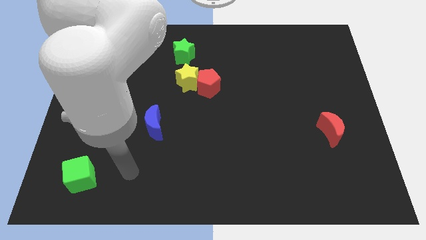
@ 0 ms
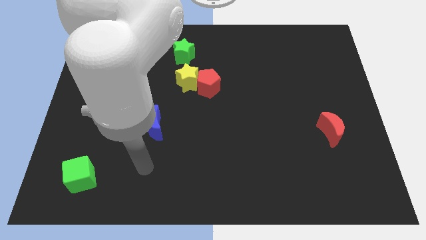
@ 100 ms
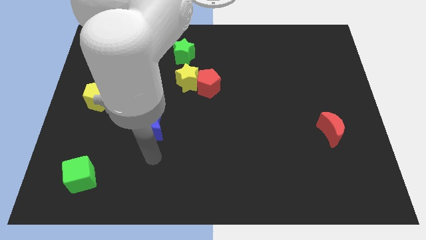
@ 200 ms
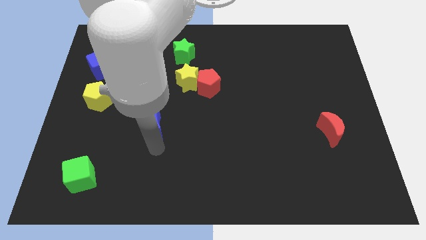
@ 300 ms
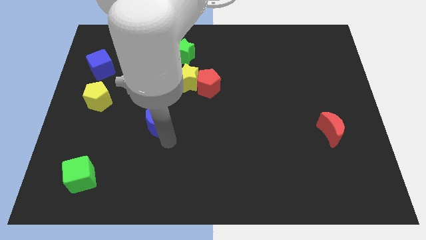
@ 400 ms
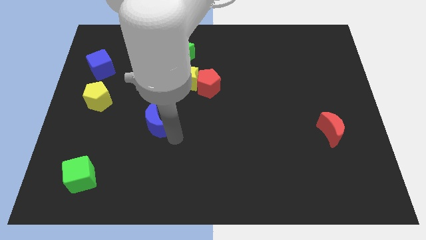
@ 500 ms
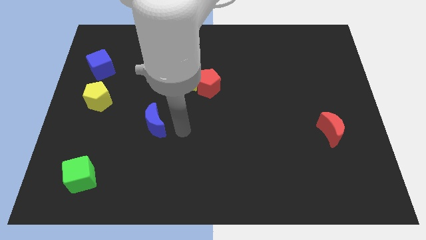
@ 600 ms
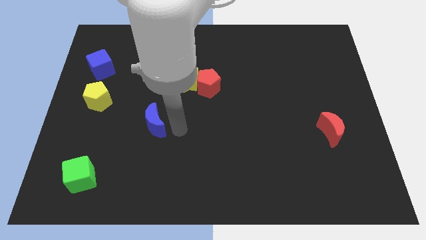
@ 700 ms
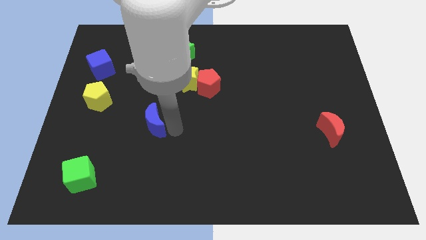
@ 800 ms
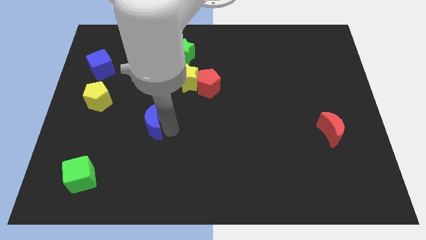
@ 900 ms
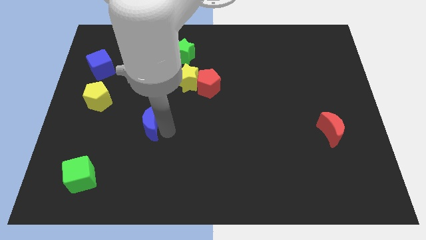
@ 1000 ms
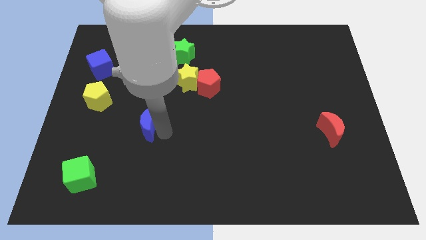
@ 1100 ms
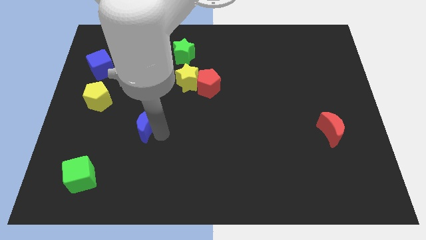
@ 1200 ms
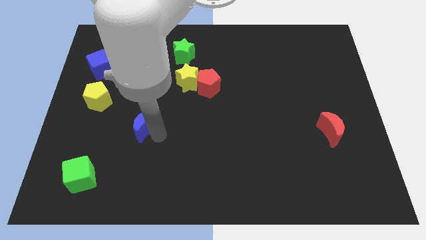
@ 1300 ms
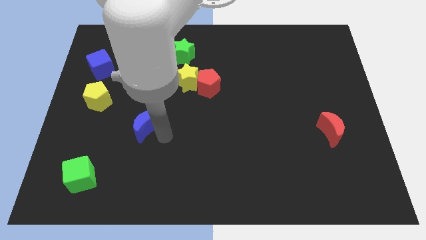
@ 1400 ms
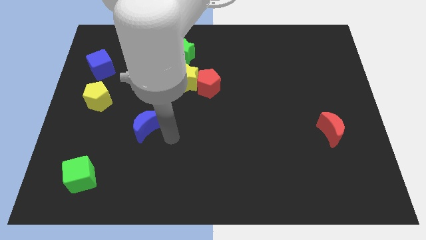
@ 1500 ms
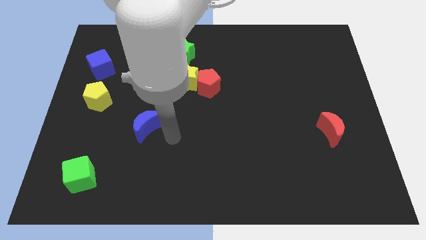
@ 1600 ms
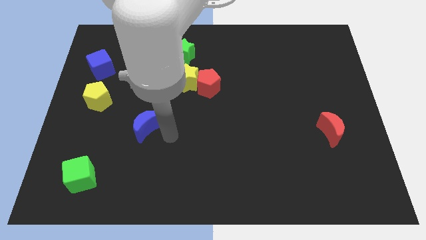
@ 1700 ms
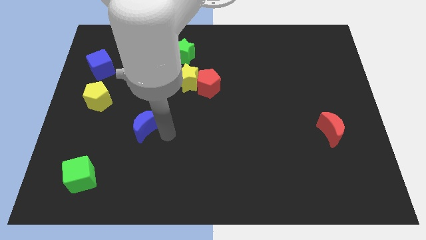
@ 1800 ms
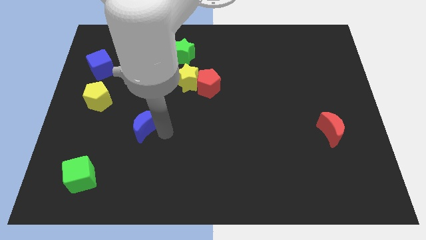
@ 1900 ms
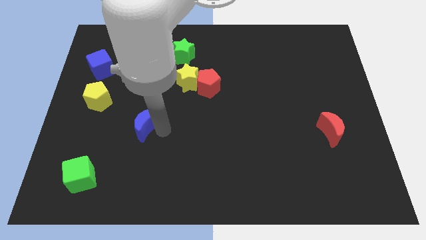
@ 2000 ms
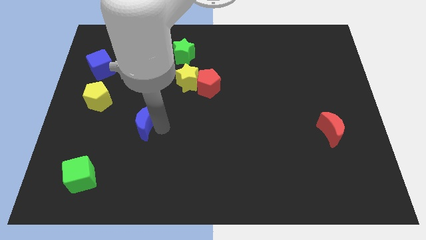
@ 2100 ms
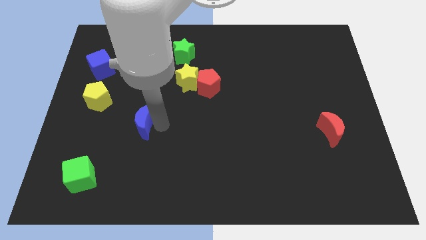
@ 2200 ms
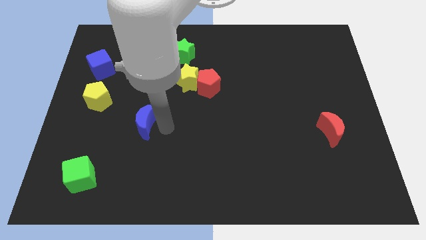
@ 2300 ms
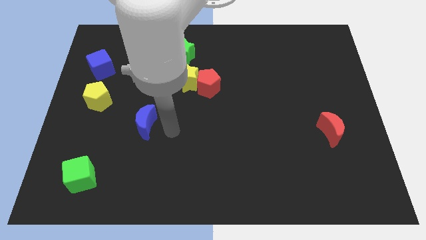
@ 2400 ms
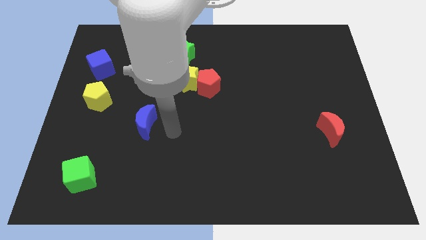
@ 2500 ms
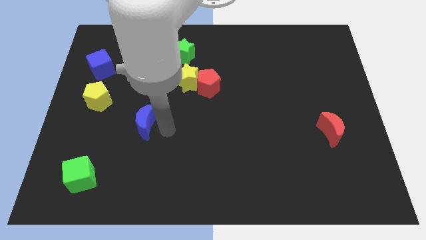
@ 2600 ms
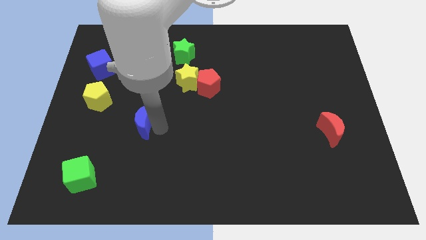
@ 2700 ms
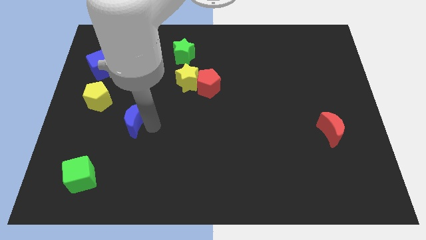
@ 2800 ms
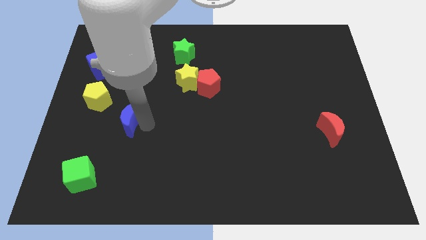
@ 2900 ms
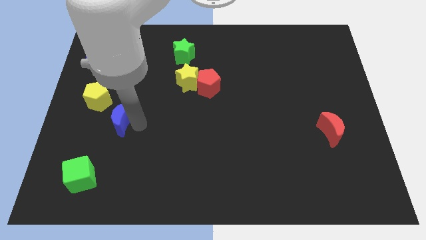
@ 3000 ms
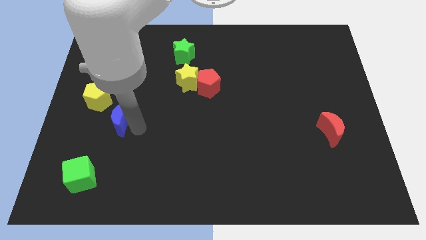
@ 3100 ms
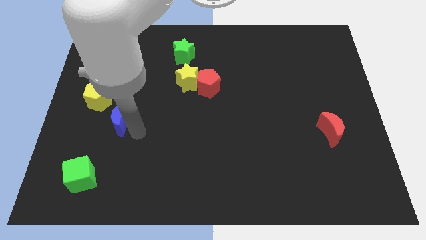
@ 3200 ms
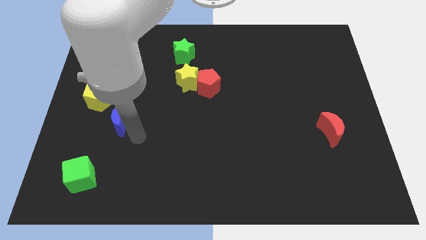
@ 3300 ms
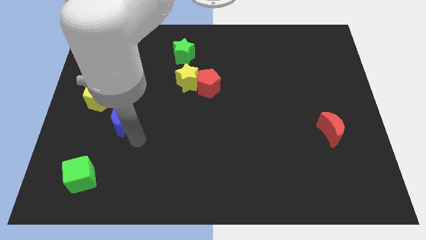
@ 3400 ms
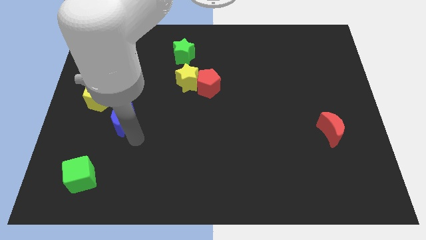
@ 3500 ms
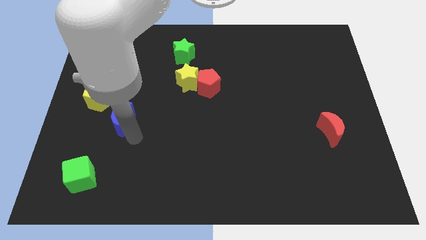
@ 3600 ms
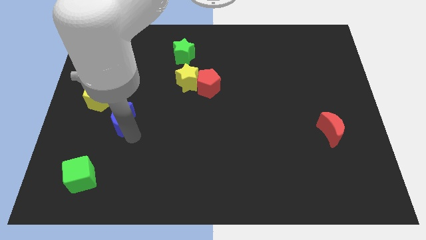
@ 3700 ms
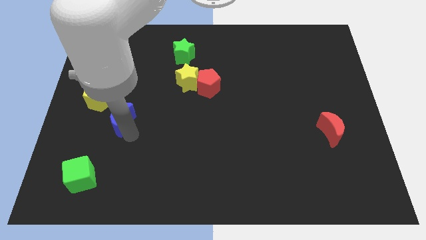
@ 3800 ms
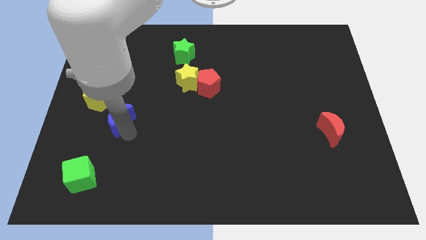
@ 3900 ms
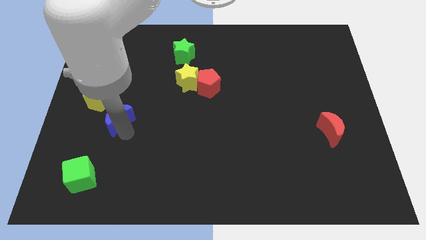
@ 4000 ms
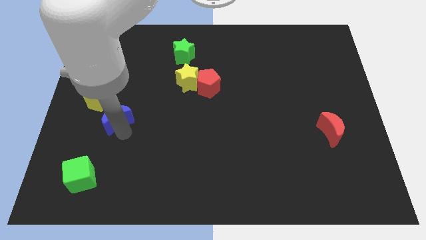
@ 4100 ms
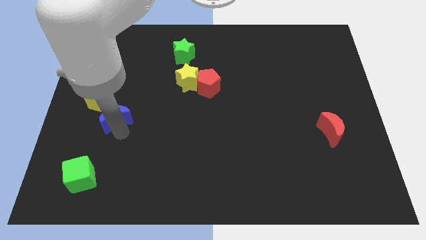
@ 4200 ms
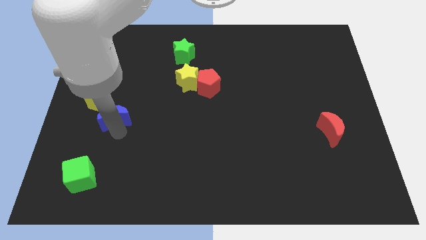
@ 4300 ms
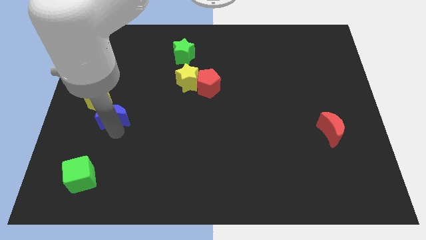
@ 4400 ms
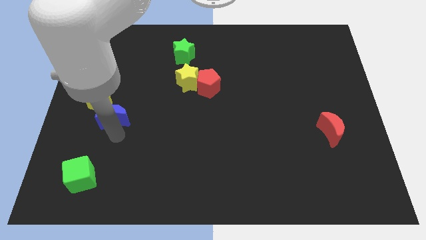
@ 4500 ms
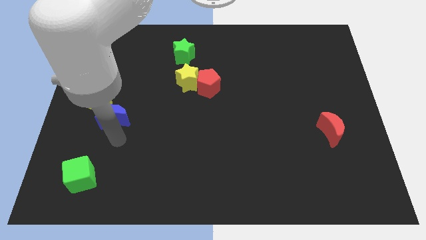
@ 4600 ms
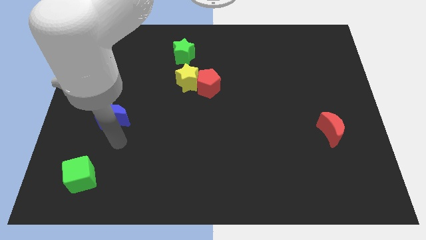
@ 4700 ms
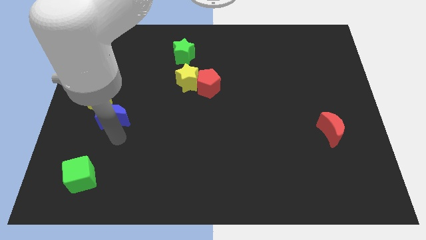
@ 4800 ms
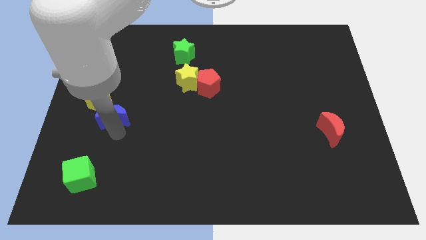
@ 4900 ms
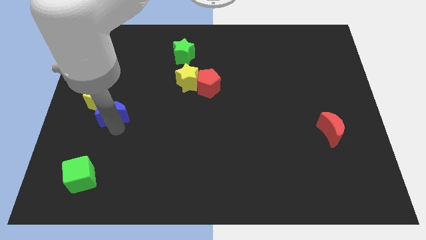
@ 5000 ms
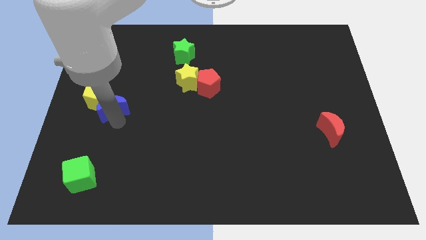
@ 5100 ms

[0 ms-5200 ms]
push the blue moon close to the yellow pentagon

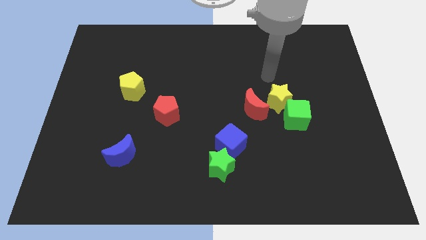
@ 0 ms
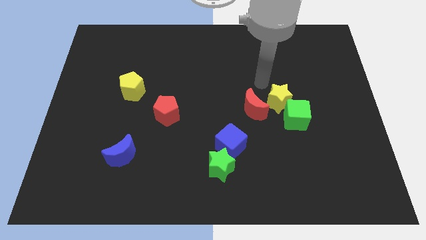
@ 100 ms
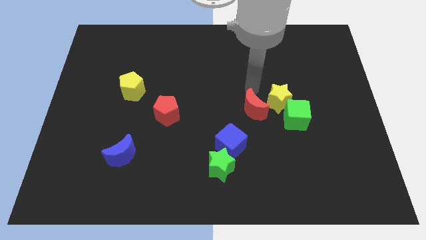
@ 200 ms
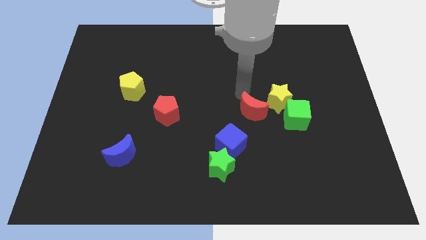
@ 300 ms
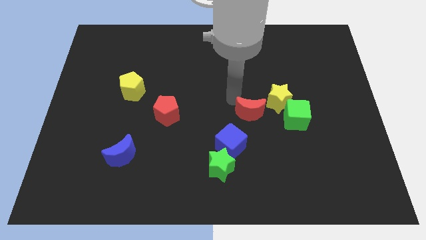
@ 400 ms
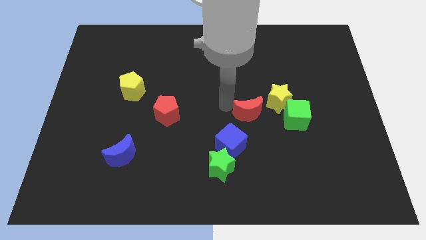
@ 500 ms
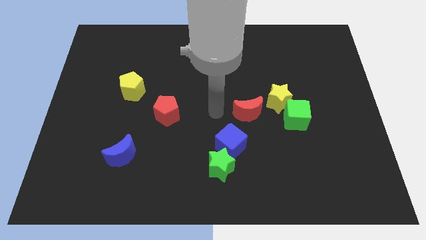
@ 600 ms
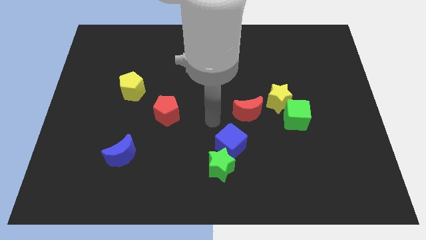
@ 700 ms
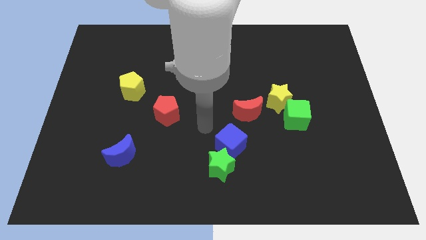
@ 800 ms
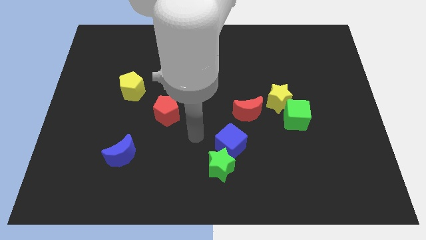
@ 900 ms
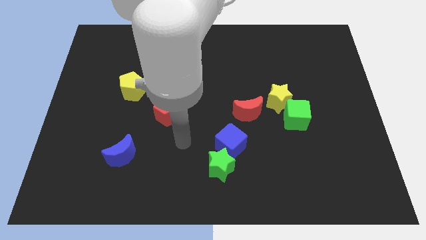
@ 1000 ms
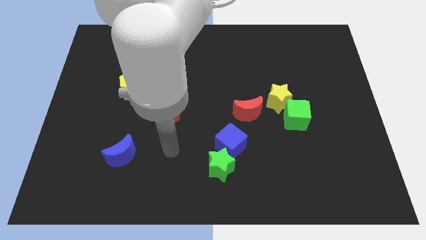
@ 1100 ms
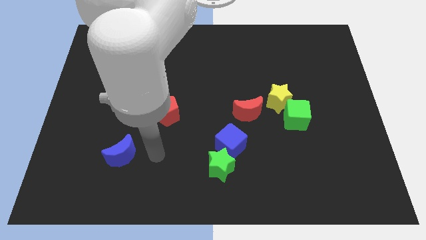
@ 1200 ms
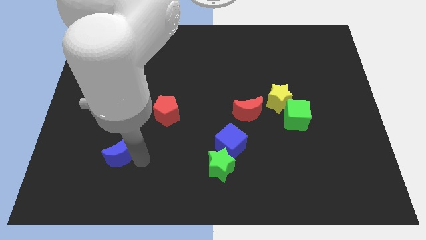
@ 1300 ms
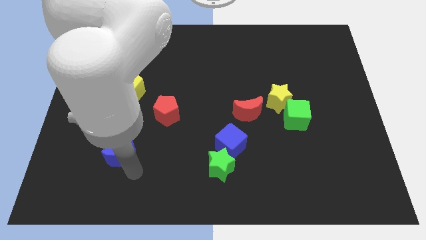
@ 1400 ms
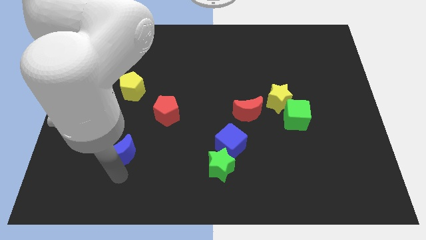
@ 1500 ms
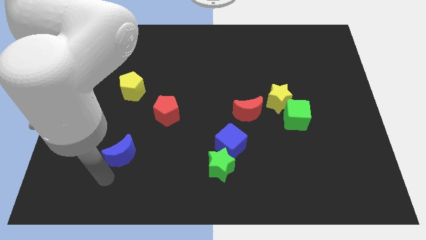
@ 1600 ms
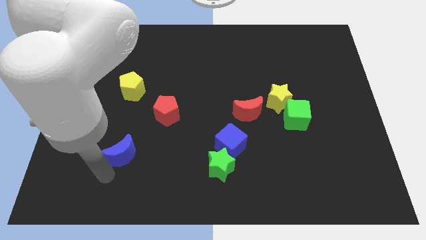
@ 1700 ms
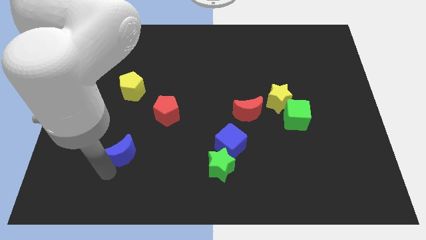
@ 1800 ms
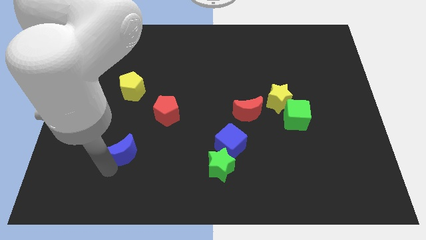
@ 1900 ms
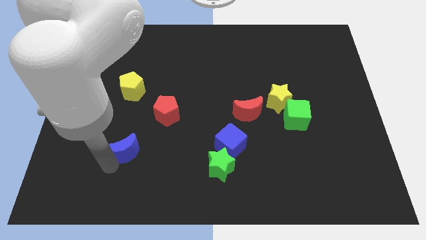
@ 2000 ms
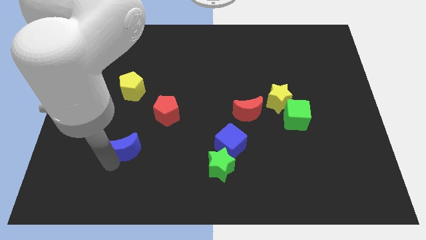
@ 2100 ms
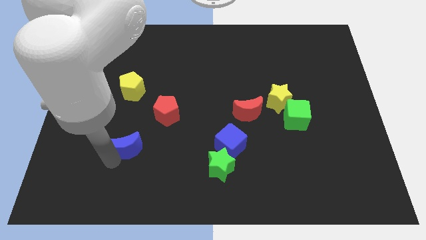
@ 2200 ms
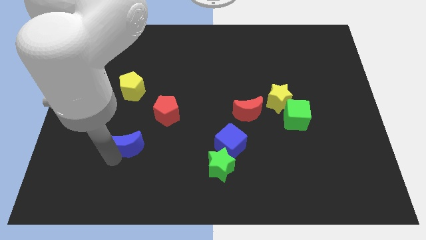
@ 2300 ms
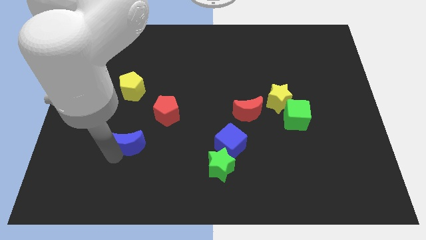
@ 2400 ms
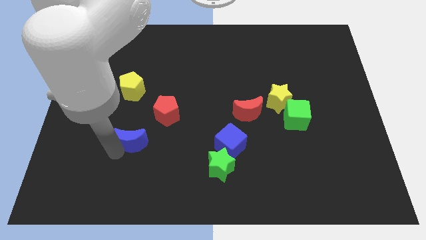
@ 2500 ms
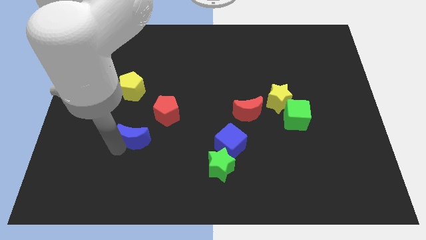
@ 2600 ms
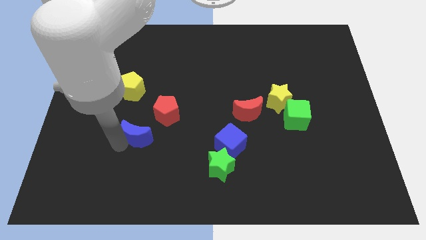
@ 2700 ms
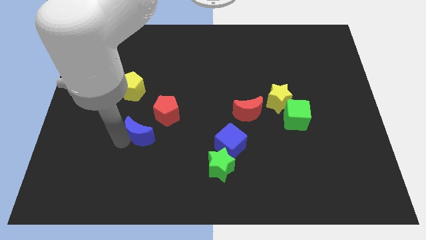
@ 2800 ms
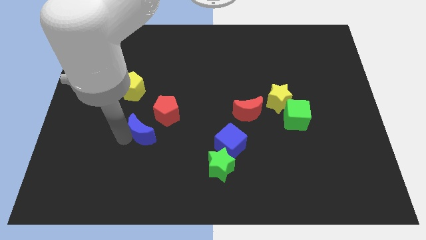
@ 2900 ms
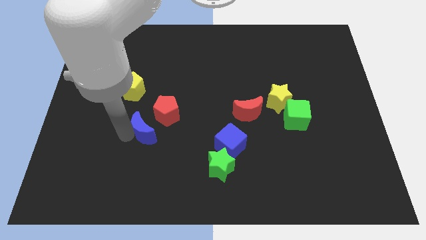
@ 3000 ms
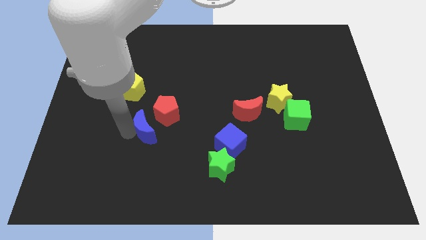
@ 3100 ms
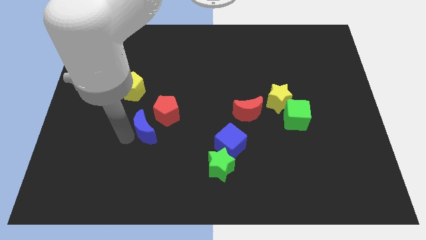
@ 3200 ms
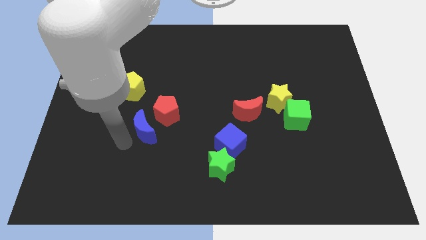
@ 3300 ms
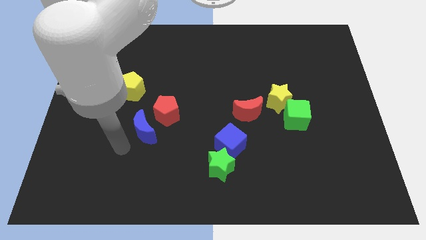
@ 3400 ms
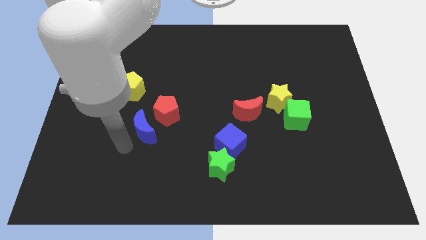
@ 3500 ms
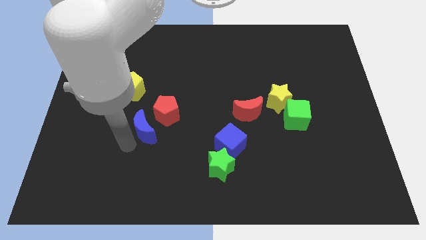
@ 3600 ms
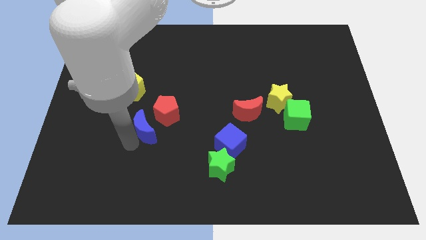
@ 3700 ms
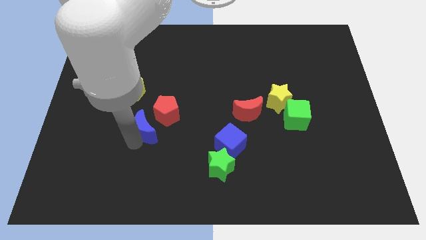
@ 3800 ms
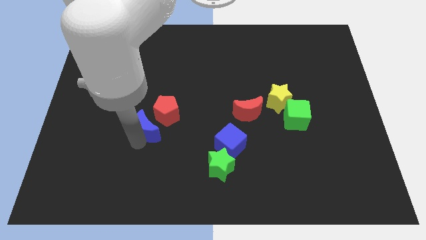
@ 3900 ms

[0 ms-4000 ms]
move the blue moon next to the red pentagon
